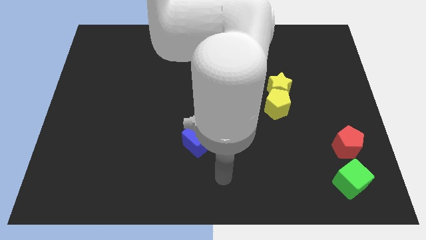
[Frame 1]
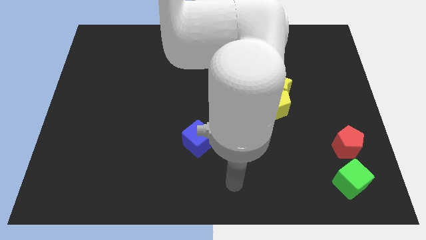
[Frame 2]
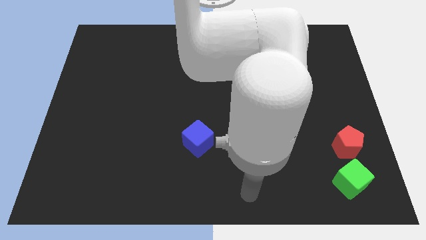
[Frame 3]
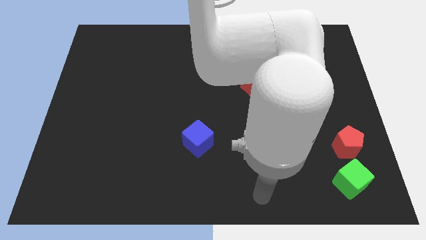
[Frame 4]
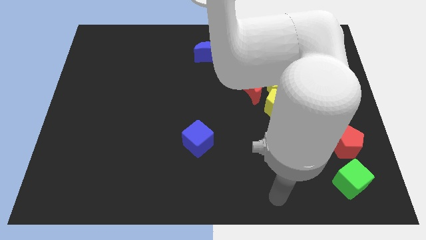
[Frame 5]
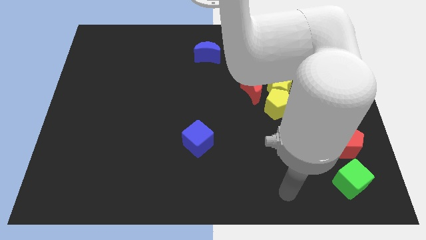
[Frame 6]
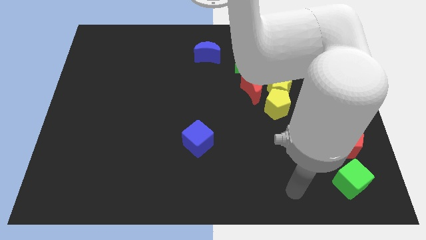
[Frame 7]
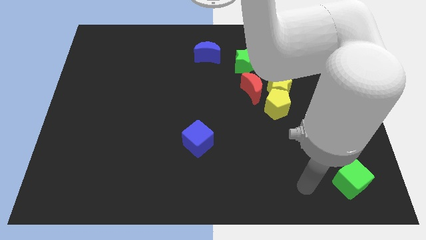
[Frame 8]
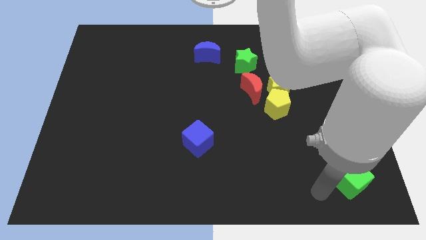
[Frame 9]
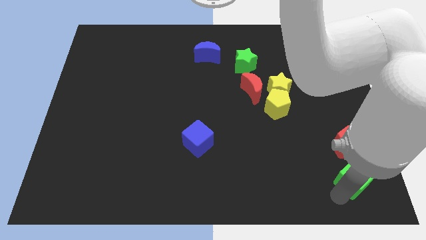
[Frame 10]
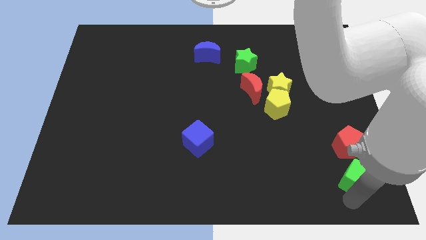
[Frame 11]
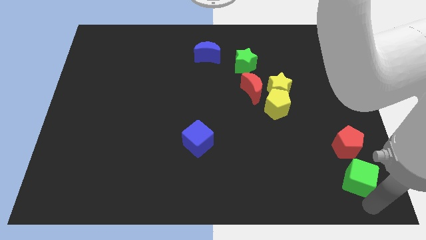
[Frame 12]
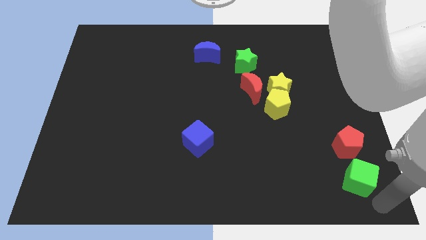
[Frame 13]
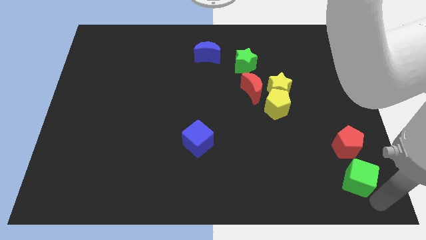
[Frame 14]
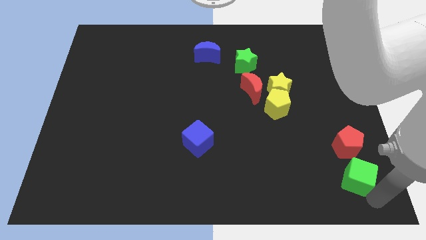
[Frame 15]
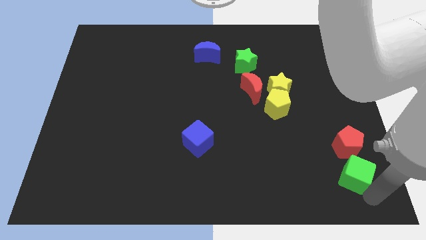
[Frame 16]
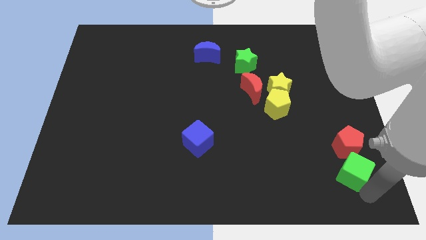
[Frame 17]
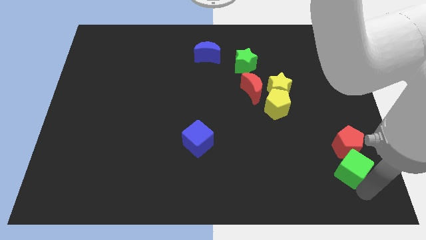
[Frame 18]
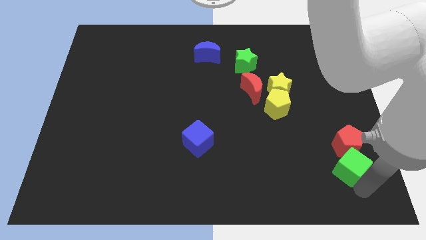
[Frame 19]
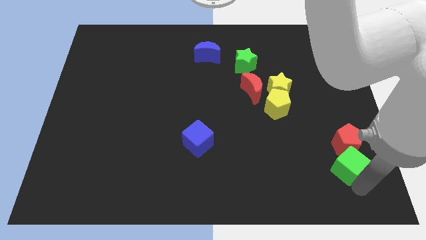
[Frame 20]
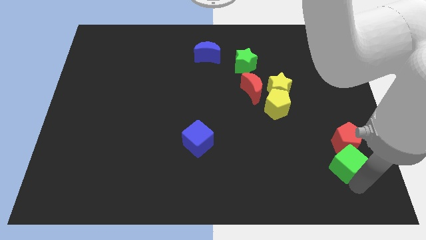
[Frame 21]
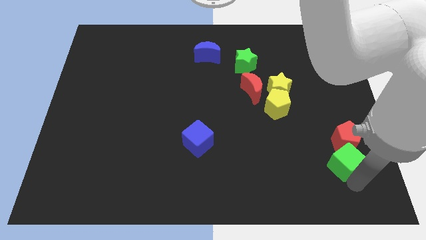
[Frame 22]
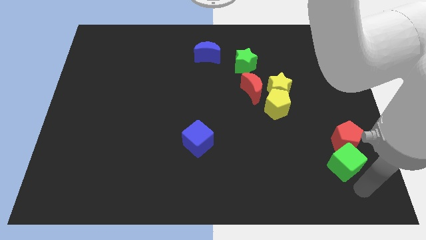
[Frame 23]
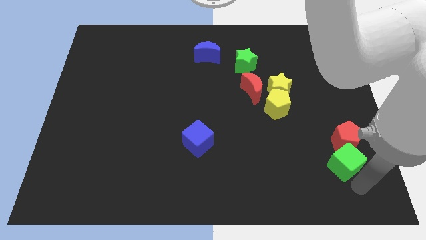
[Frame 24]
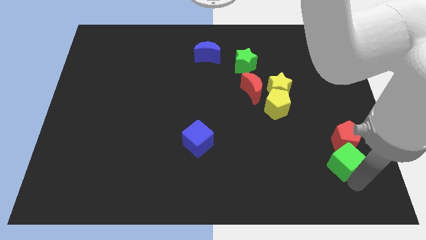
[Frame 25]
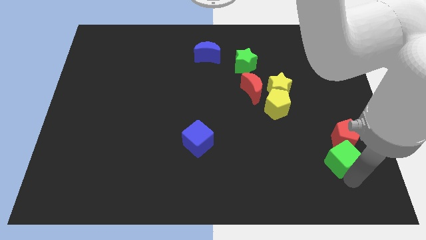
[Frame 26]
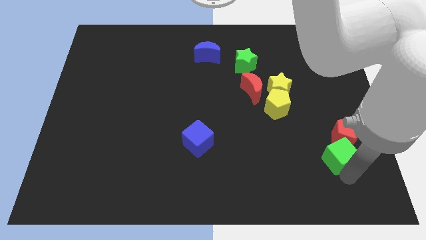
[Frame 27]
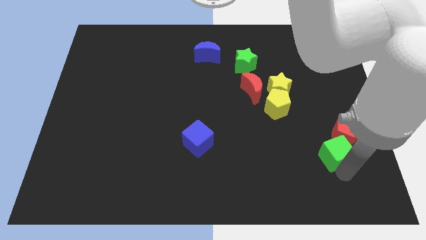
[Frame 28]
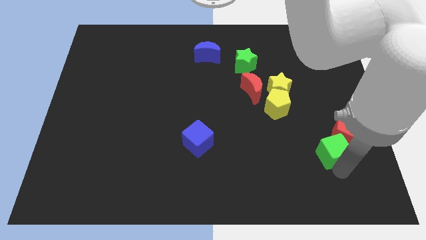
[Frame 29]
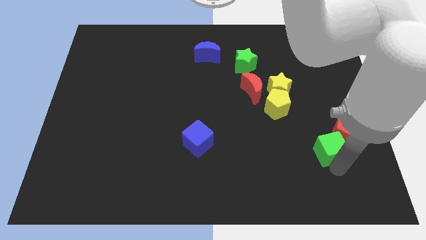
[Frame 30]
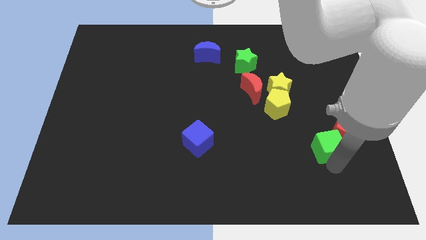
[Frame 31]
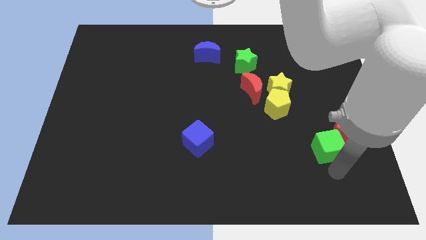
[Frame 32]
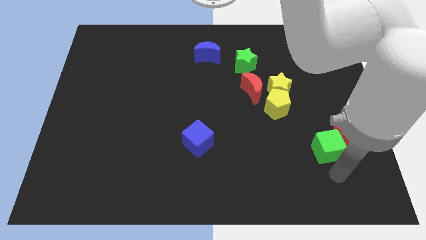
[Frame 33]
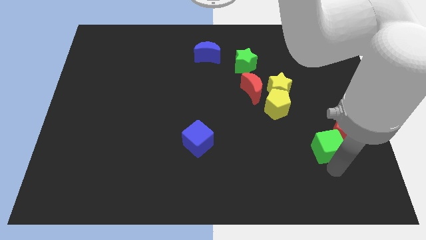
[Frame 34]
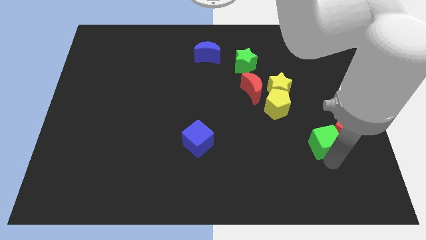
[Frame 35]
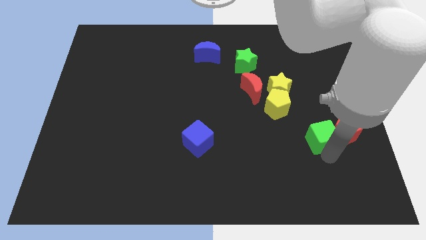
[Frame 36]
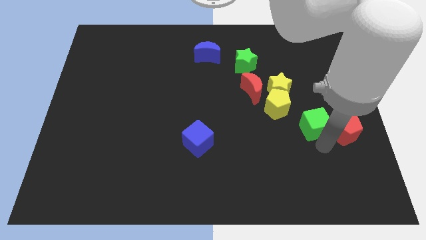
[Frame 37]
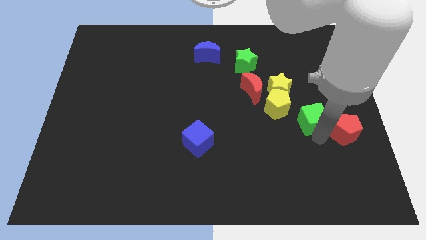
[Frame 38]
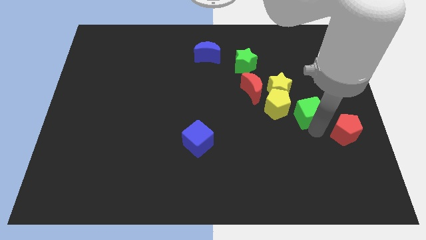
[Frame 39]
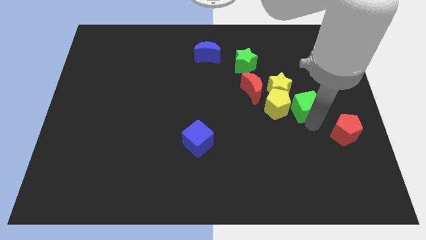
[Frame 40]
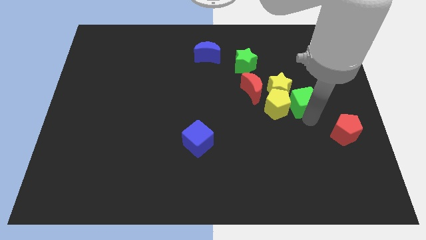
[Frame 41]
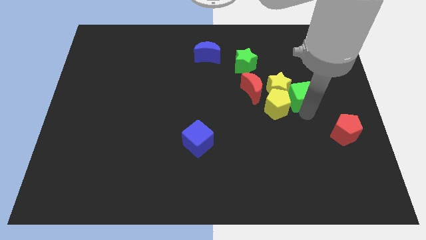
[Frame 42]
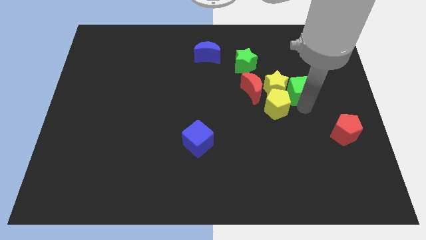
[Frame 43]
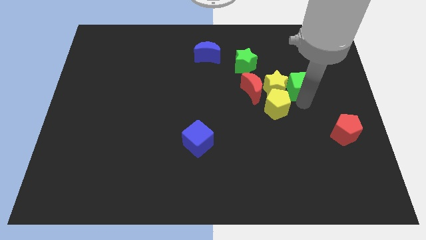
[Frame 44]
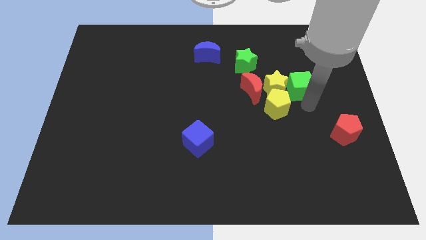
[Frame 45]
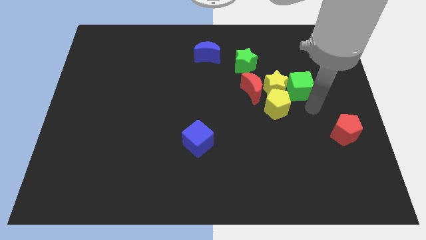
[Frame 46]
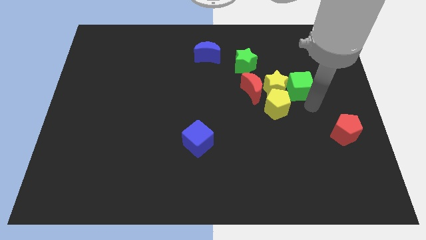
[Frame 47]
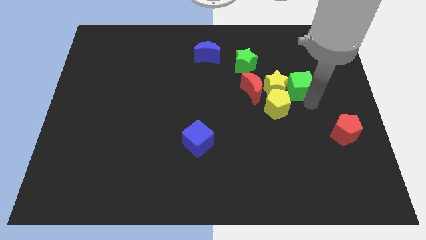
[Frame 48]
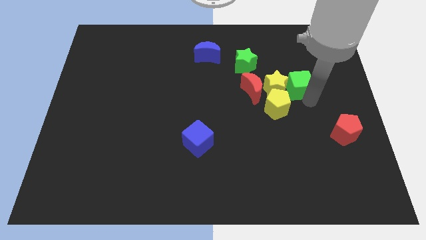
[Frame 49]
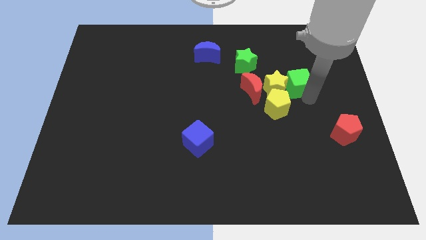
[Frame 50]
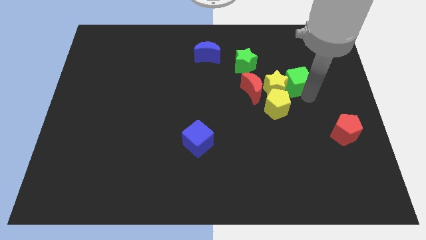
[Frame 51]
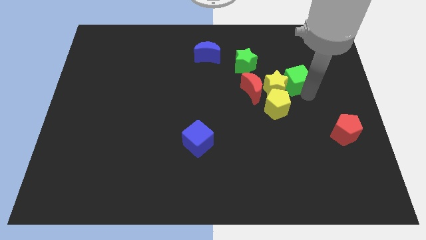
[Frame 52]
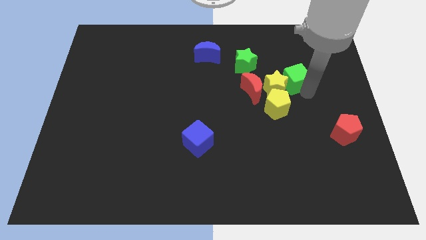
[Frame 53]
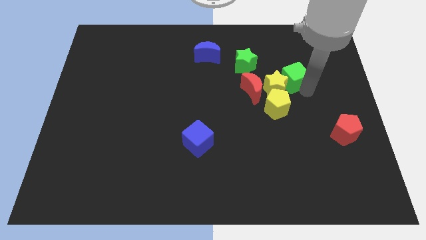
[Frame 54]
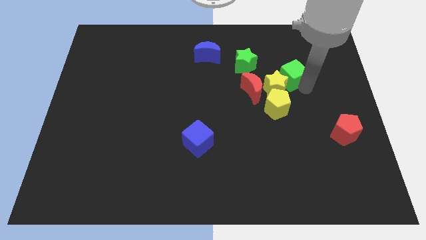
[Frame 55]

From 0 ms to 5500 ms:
slide the green cube above the yellow star

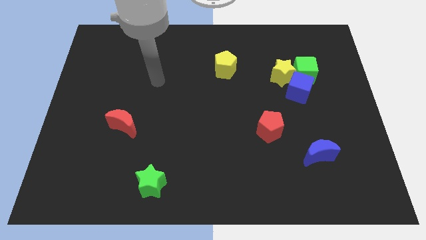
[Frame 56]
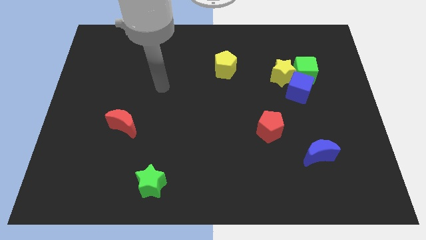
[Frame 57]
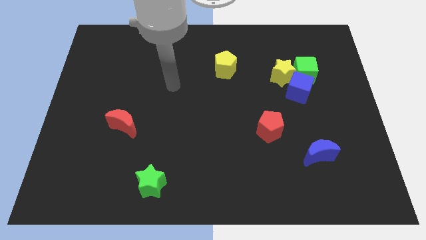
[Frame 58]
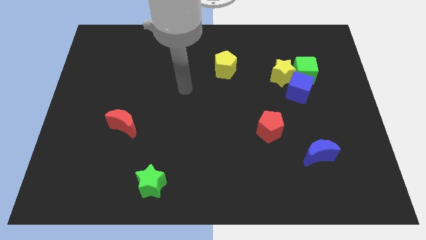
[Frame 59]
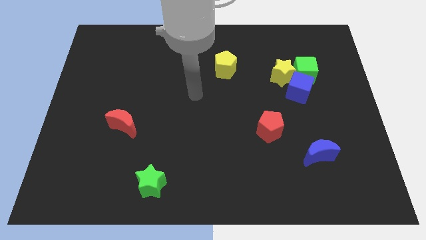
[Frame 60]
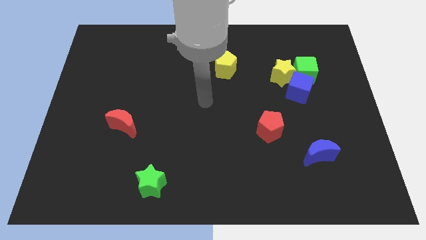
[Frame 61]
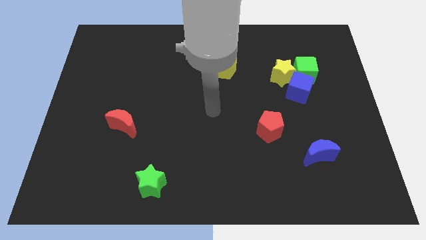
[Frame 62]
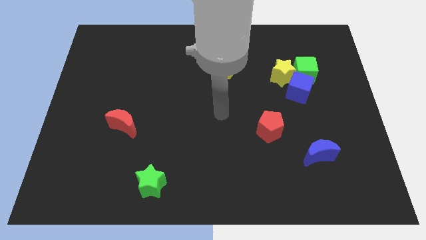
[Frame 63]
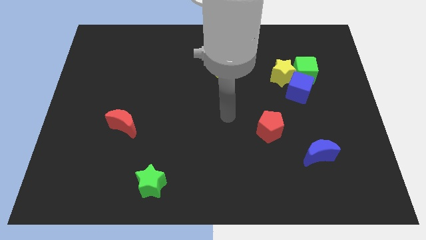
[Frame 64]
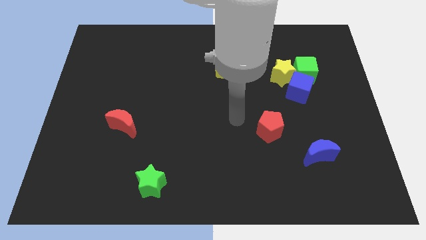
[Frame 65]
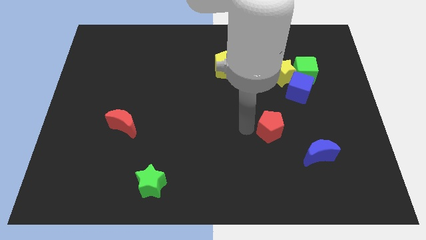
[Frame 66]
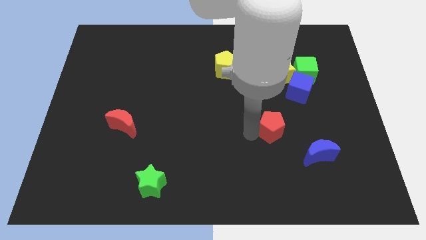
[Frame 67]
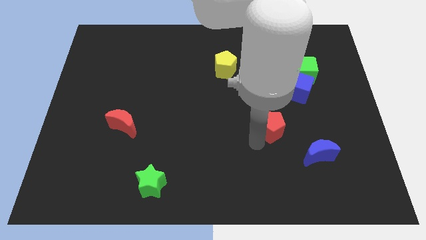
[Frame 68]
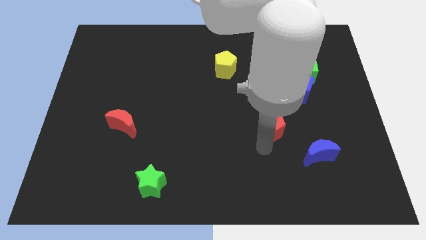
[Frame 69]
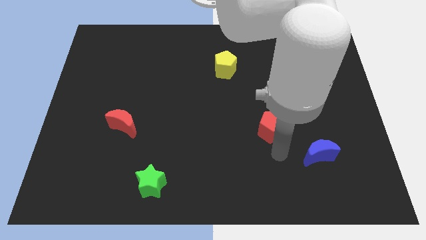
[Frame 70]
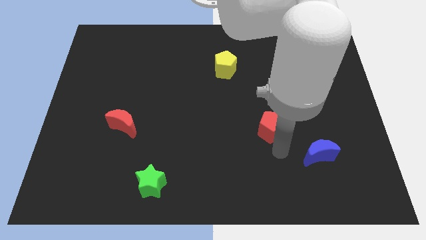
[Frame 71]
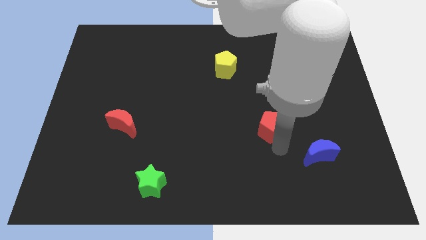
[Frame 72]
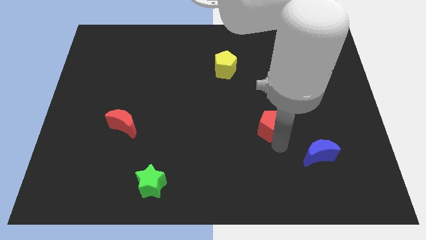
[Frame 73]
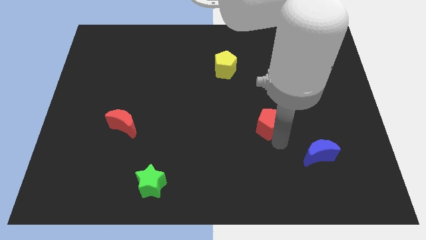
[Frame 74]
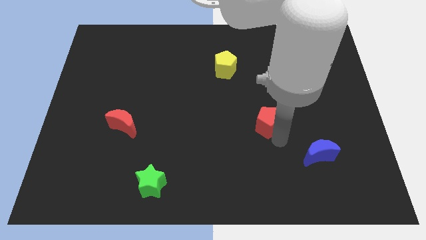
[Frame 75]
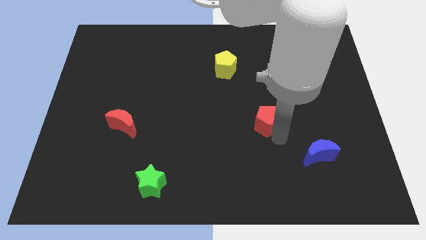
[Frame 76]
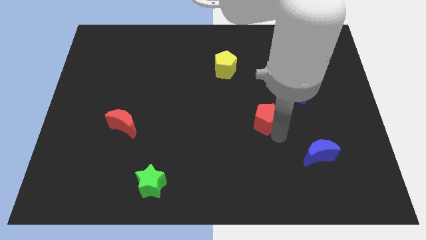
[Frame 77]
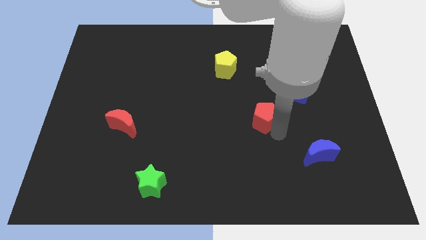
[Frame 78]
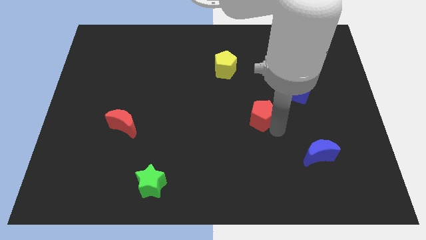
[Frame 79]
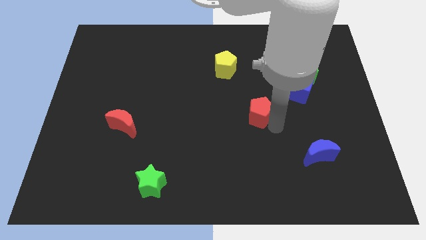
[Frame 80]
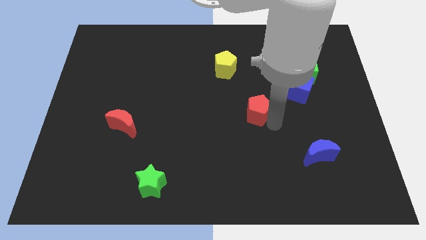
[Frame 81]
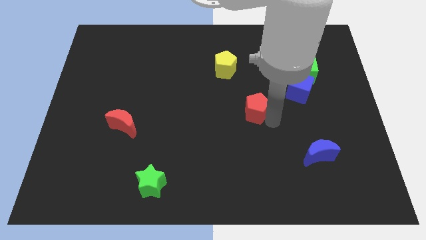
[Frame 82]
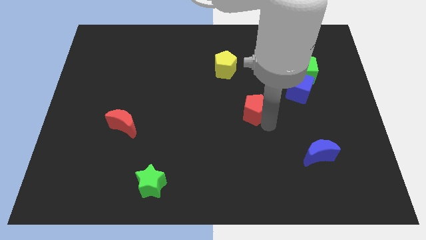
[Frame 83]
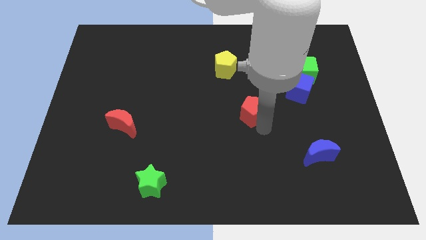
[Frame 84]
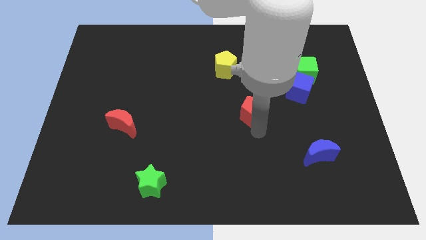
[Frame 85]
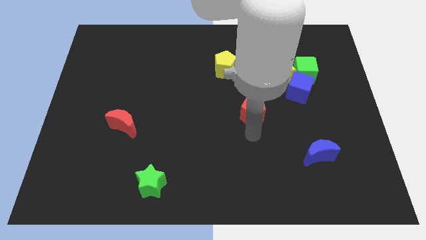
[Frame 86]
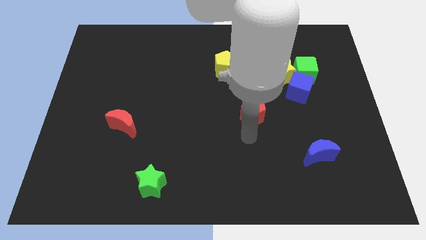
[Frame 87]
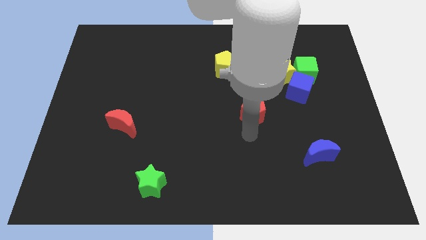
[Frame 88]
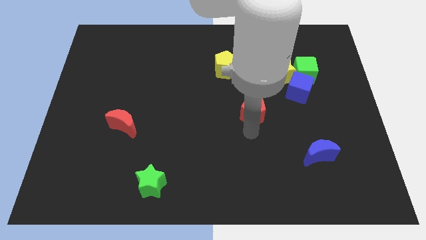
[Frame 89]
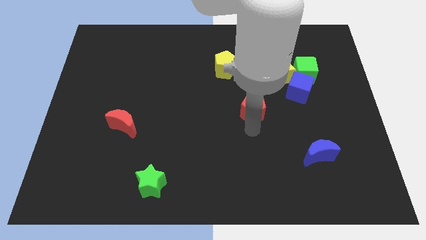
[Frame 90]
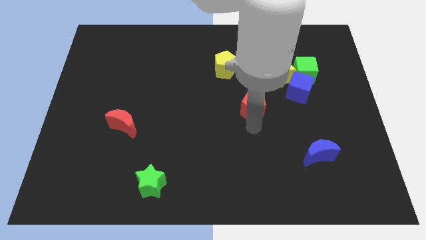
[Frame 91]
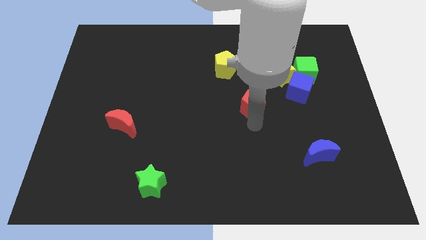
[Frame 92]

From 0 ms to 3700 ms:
slide the red pentagon just left of the blue cube
